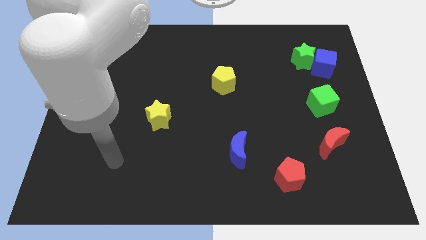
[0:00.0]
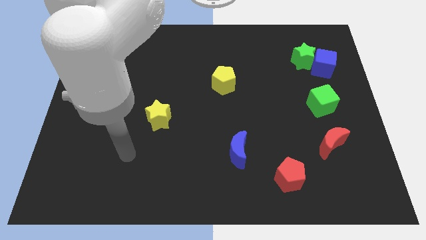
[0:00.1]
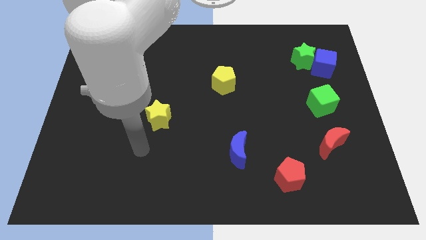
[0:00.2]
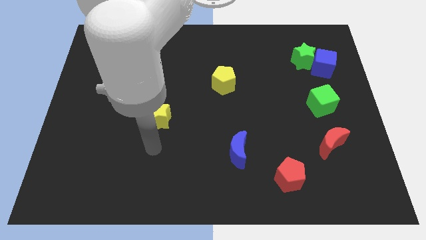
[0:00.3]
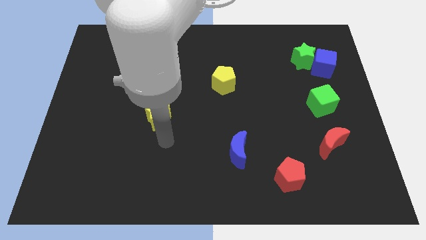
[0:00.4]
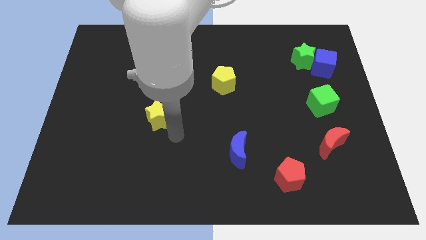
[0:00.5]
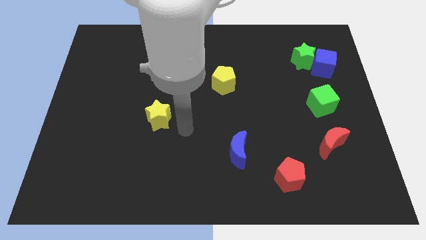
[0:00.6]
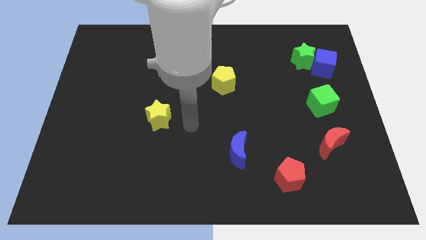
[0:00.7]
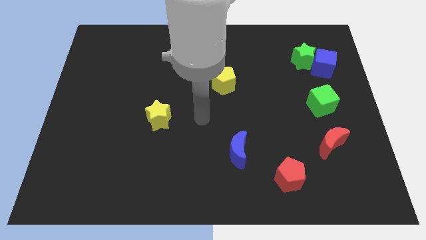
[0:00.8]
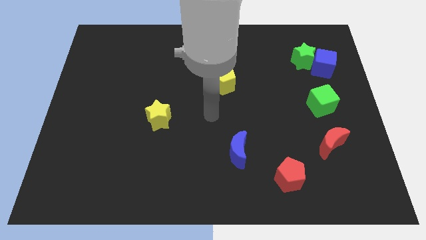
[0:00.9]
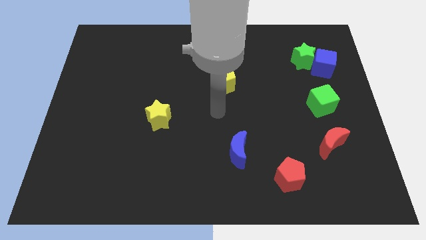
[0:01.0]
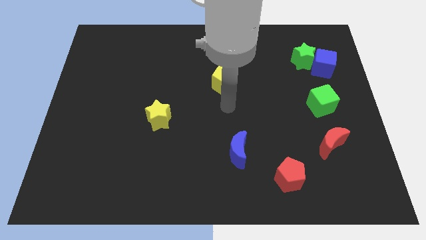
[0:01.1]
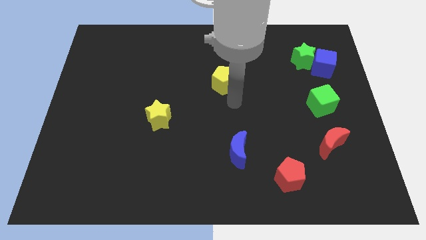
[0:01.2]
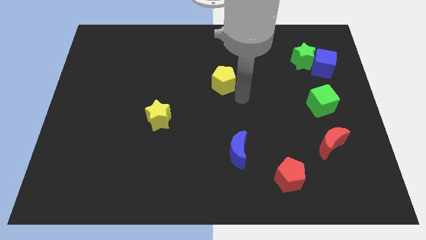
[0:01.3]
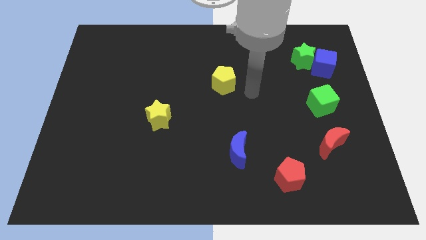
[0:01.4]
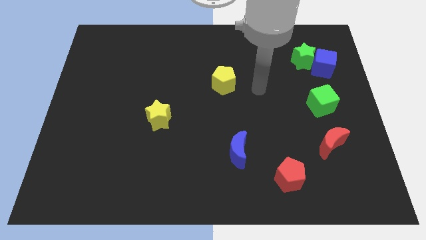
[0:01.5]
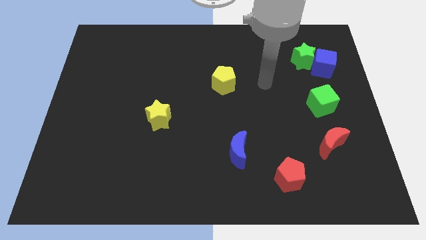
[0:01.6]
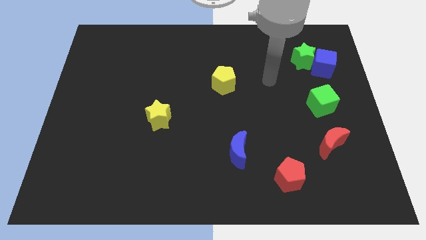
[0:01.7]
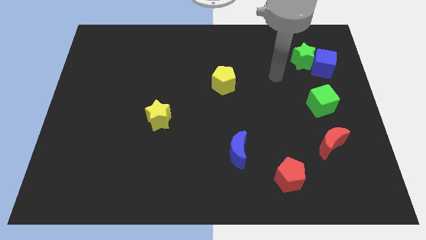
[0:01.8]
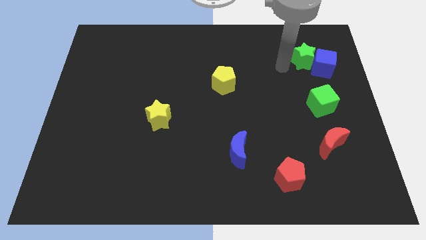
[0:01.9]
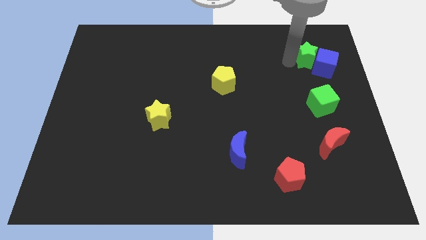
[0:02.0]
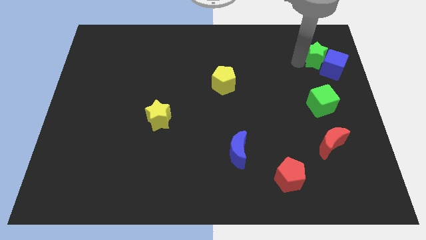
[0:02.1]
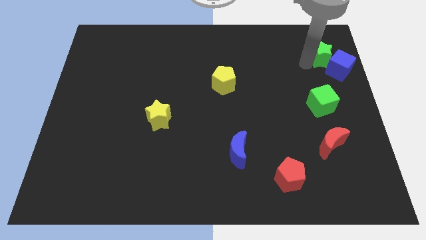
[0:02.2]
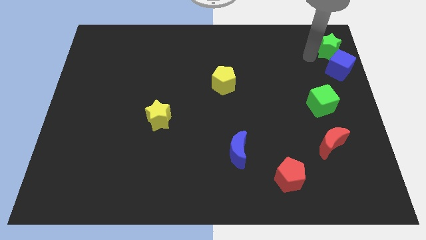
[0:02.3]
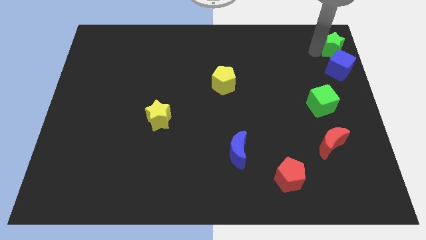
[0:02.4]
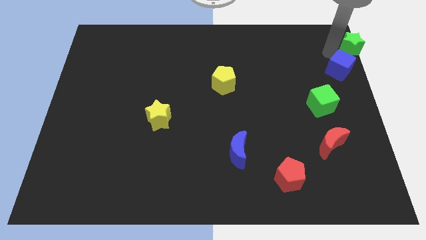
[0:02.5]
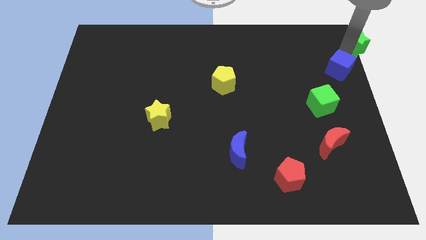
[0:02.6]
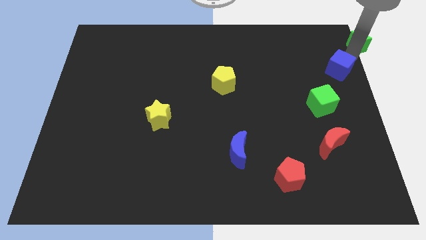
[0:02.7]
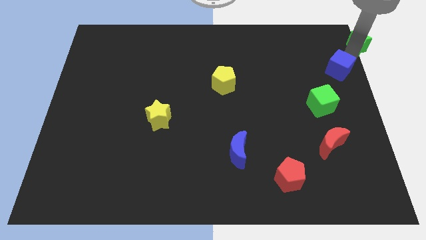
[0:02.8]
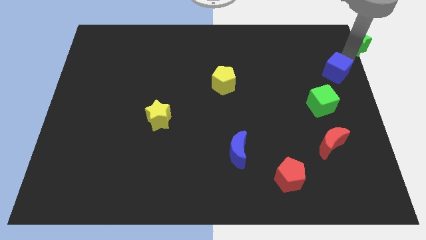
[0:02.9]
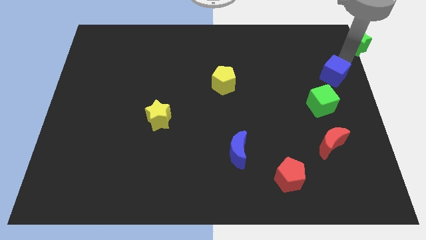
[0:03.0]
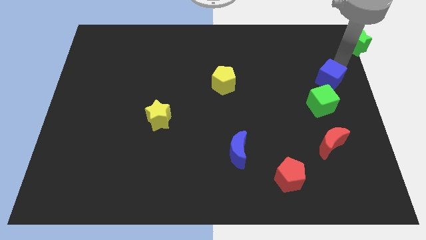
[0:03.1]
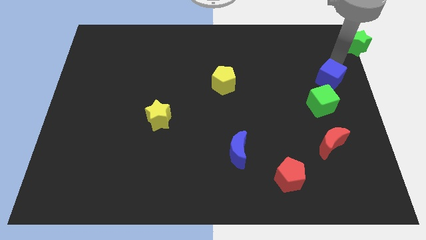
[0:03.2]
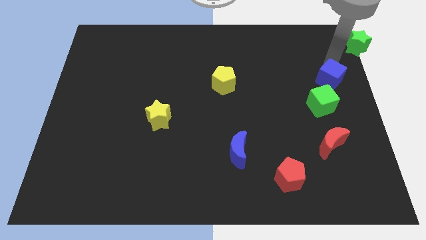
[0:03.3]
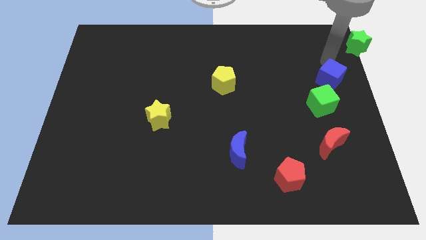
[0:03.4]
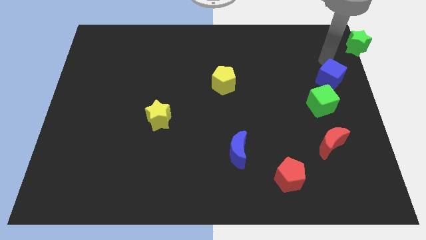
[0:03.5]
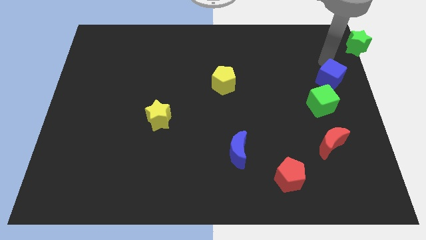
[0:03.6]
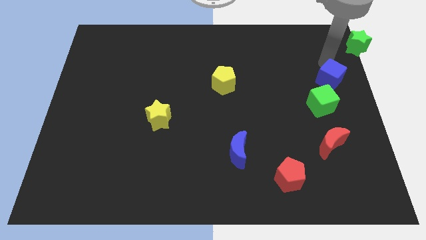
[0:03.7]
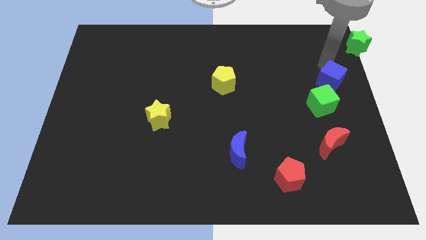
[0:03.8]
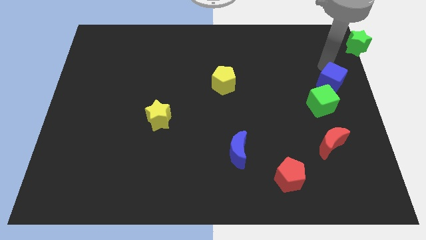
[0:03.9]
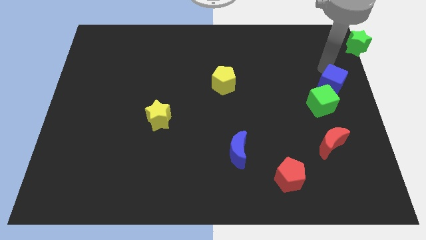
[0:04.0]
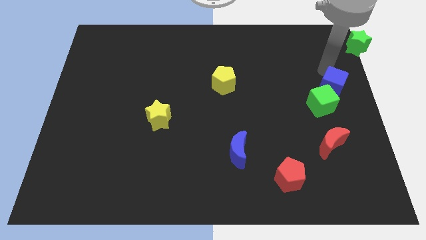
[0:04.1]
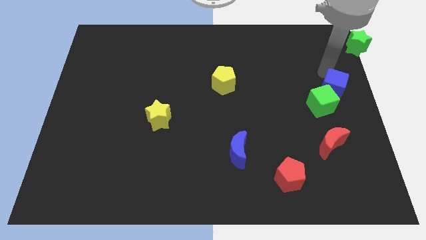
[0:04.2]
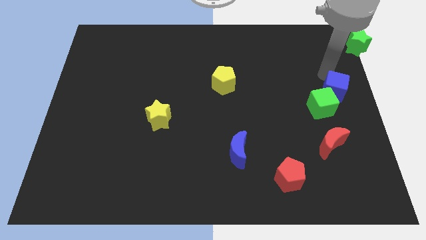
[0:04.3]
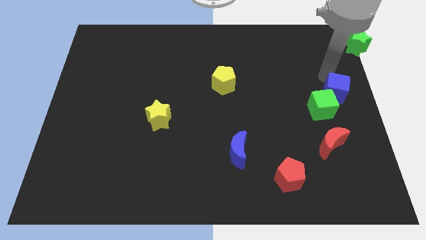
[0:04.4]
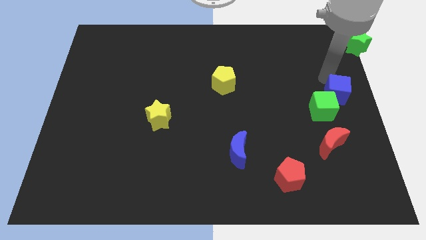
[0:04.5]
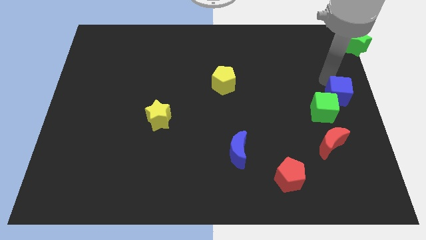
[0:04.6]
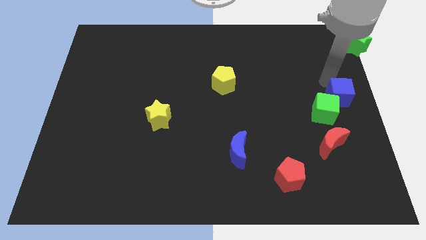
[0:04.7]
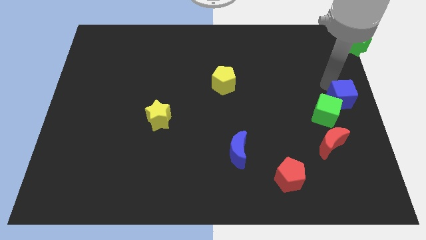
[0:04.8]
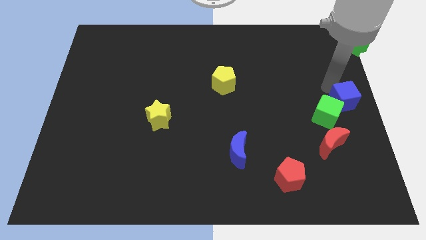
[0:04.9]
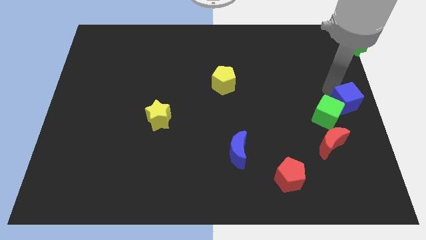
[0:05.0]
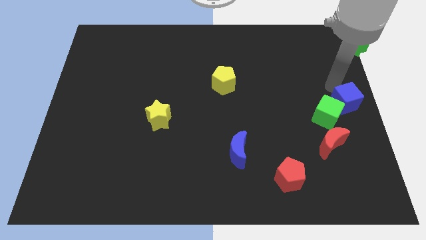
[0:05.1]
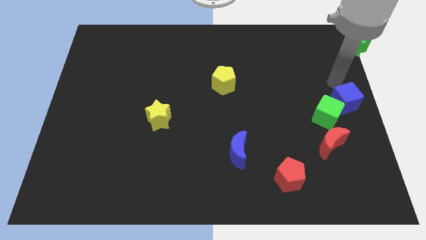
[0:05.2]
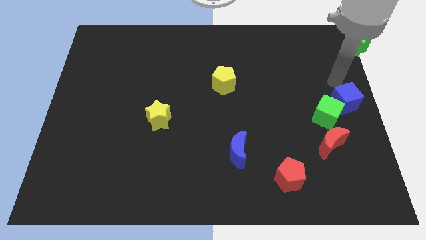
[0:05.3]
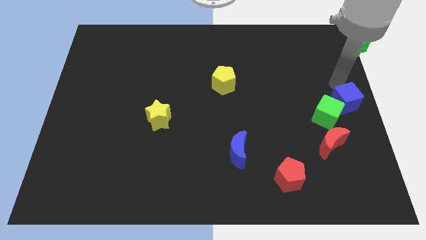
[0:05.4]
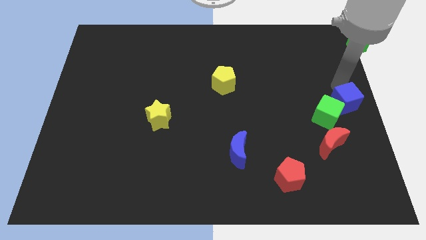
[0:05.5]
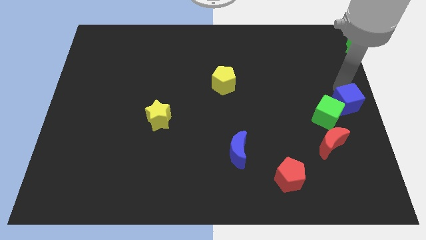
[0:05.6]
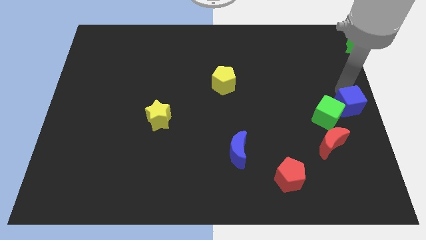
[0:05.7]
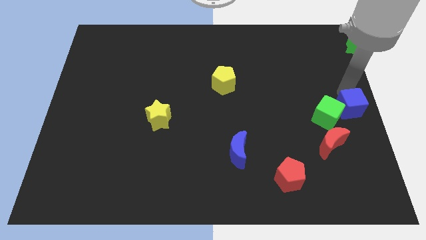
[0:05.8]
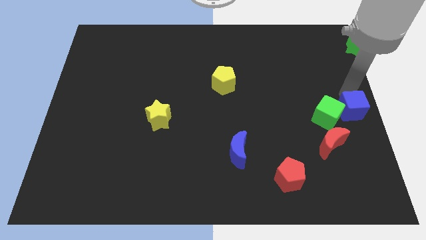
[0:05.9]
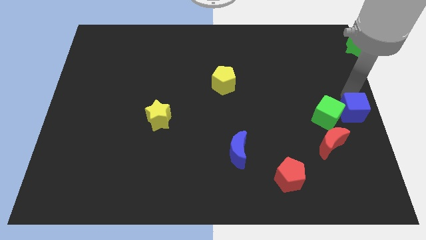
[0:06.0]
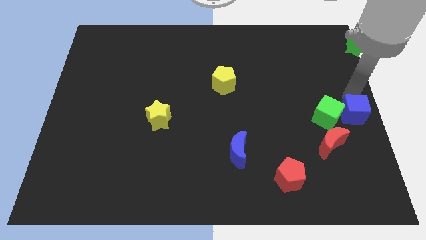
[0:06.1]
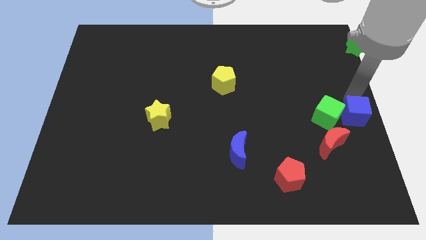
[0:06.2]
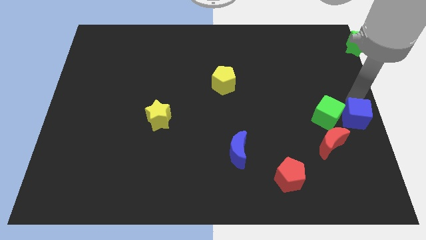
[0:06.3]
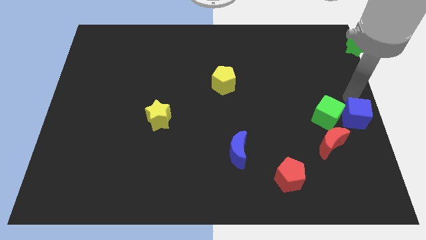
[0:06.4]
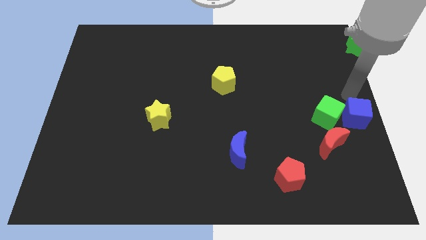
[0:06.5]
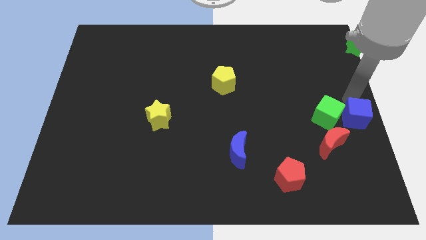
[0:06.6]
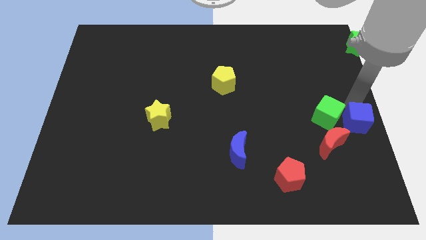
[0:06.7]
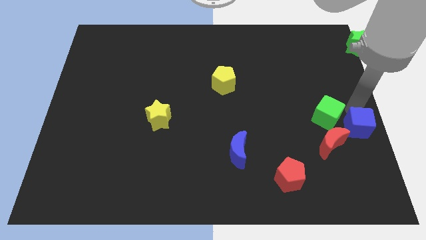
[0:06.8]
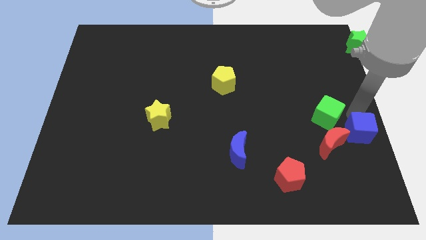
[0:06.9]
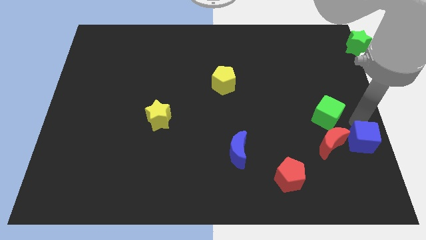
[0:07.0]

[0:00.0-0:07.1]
push the blue cube down

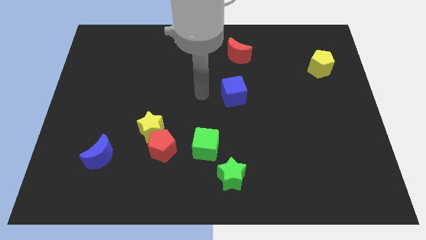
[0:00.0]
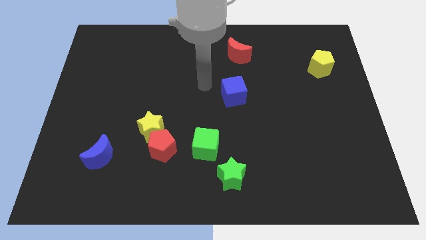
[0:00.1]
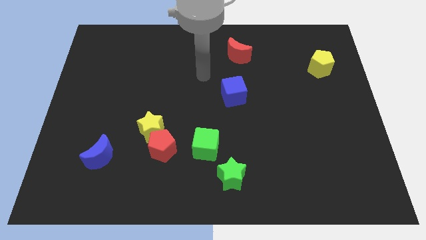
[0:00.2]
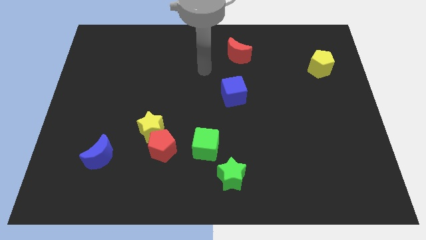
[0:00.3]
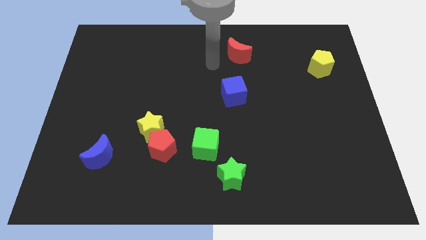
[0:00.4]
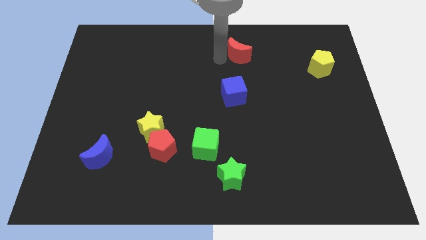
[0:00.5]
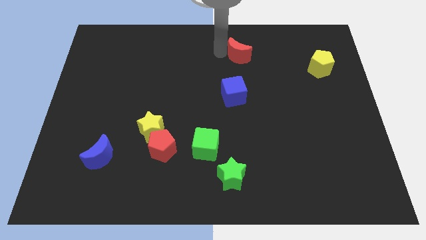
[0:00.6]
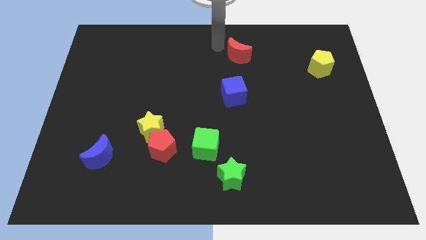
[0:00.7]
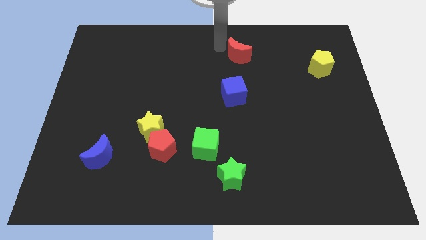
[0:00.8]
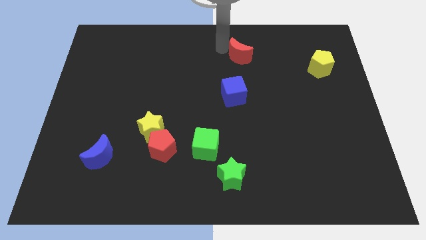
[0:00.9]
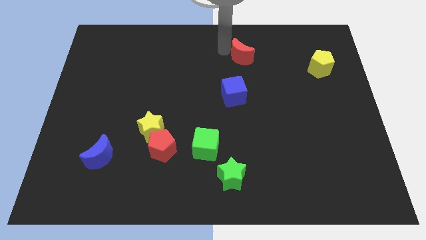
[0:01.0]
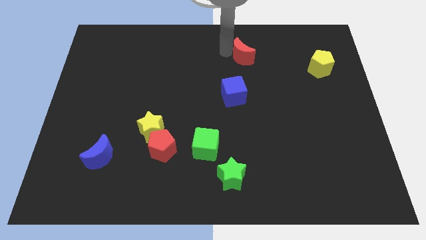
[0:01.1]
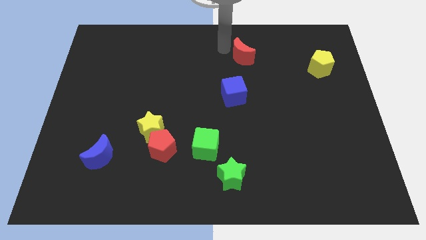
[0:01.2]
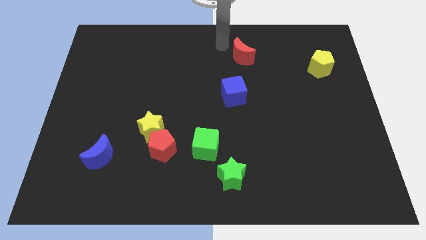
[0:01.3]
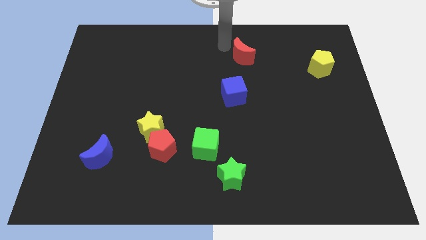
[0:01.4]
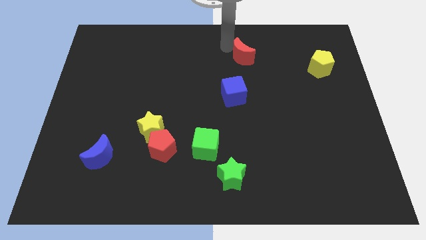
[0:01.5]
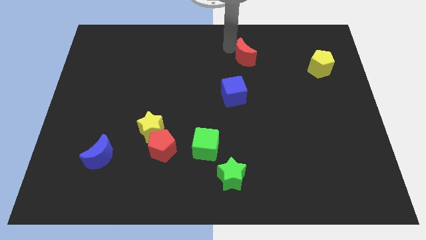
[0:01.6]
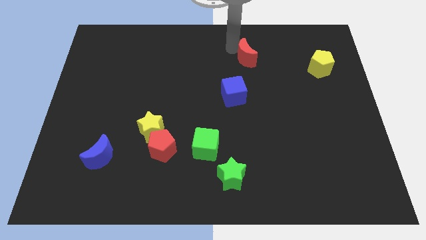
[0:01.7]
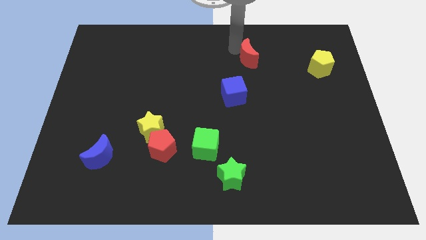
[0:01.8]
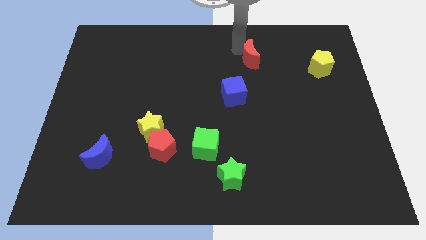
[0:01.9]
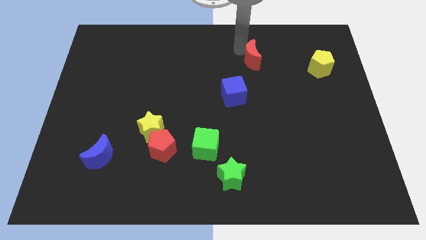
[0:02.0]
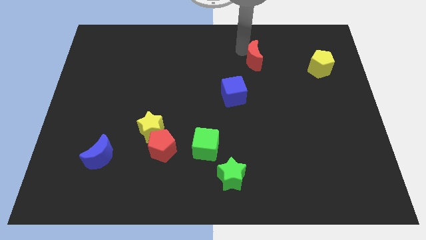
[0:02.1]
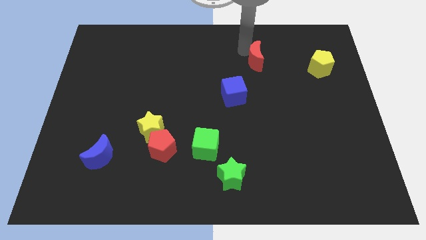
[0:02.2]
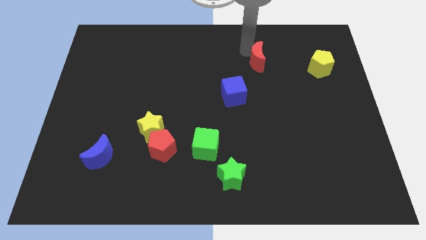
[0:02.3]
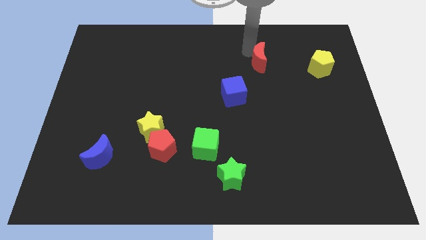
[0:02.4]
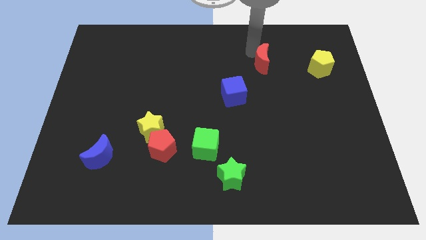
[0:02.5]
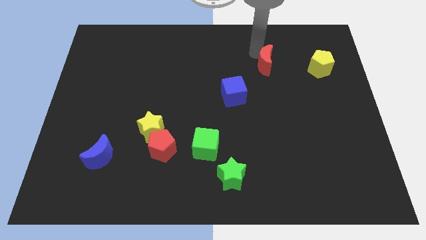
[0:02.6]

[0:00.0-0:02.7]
move the red moon downwards and right slightly
